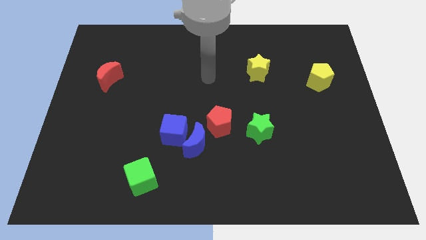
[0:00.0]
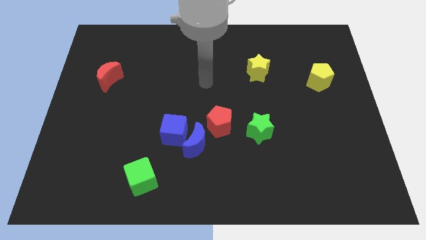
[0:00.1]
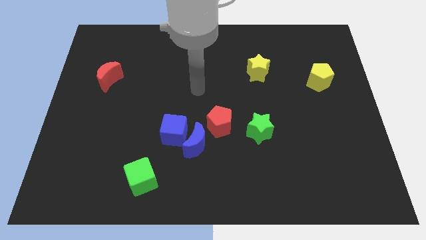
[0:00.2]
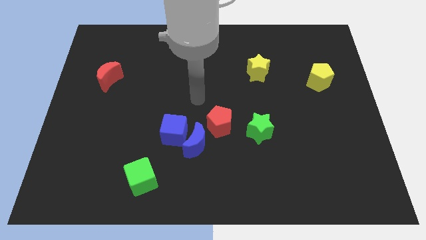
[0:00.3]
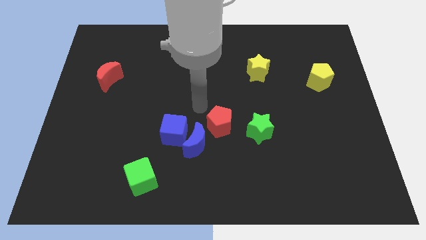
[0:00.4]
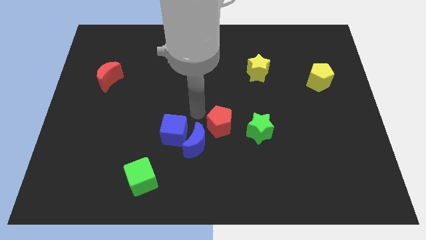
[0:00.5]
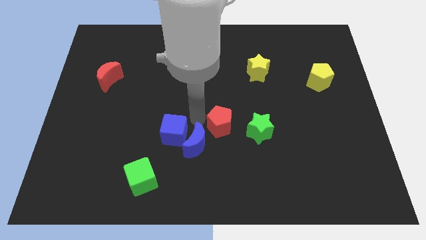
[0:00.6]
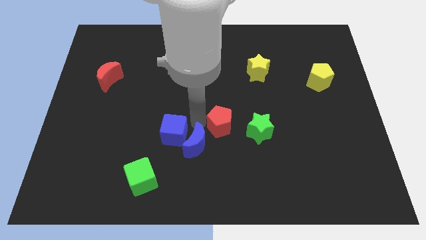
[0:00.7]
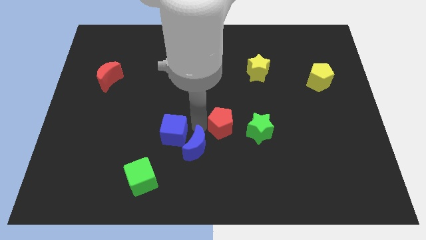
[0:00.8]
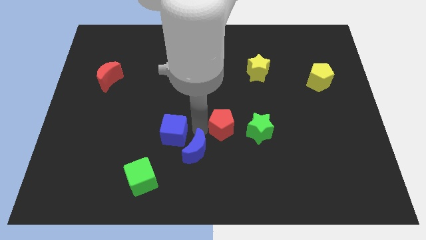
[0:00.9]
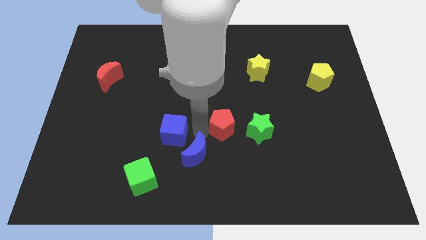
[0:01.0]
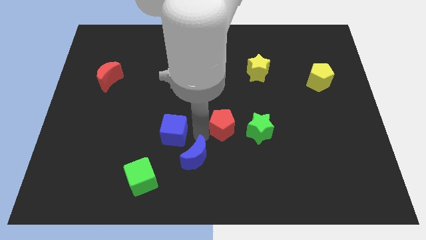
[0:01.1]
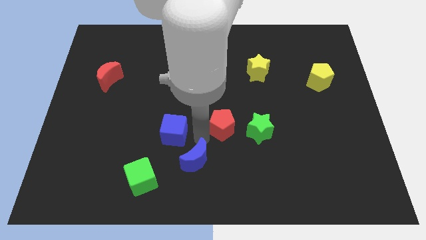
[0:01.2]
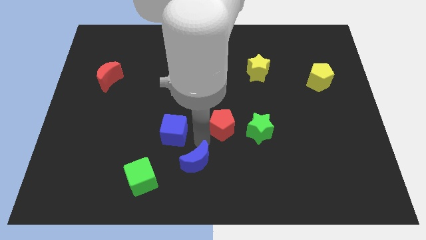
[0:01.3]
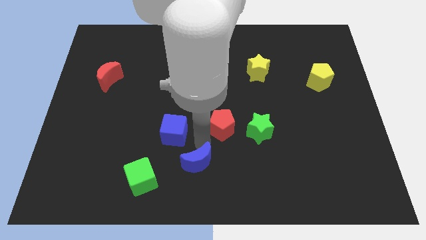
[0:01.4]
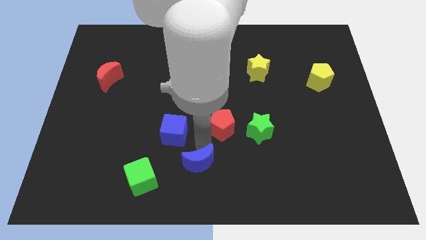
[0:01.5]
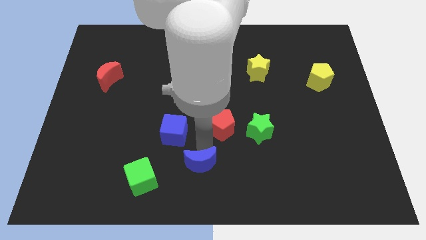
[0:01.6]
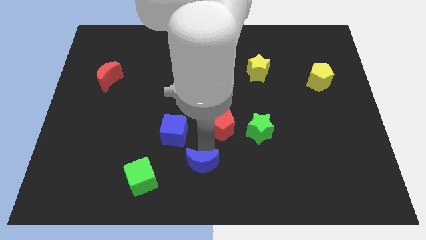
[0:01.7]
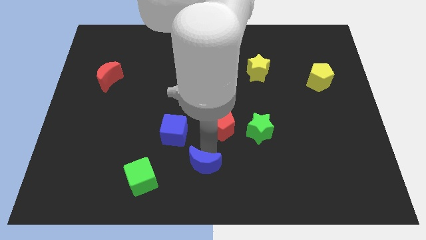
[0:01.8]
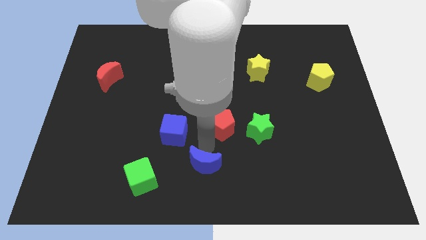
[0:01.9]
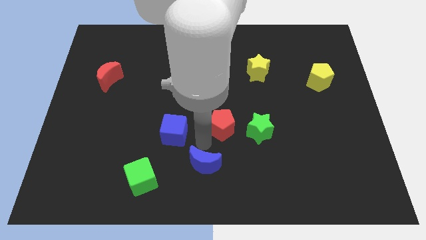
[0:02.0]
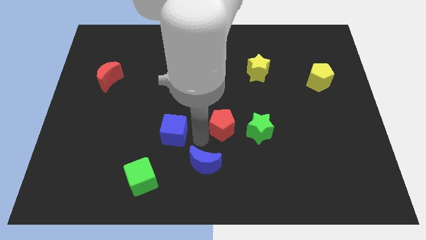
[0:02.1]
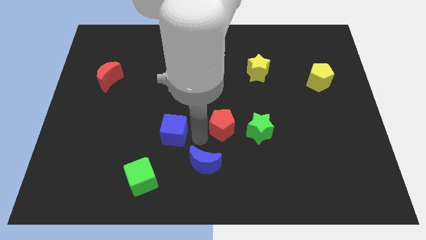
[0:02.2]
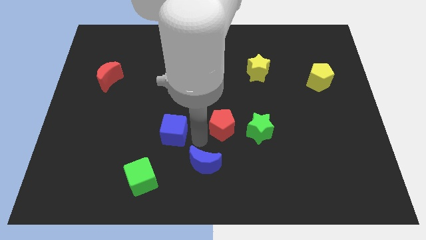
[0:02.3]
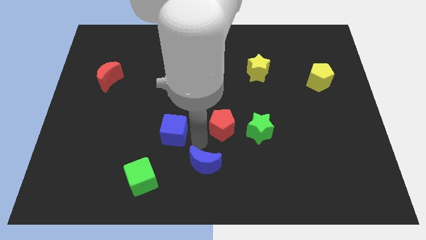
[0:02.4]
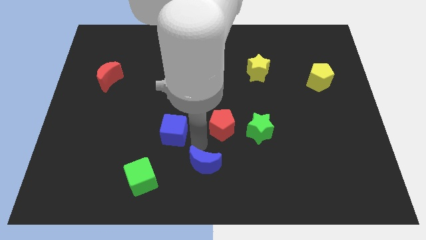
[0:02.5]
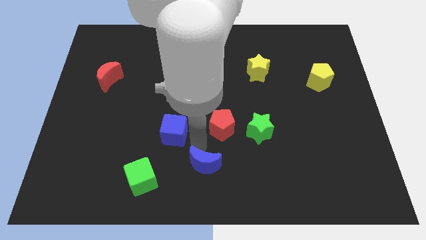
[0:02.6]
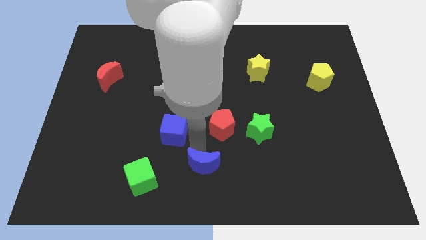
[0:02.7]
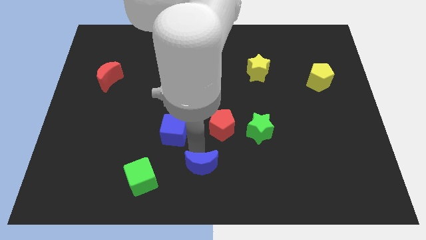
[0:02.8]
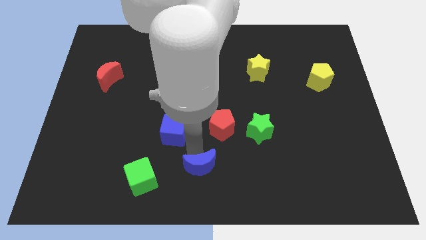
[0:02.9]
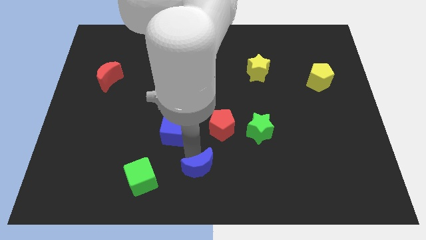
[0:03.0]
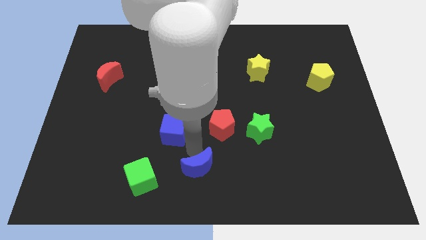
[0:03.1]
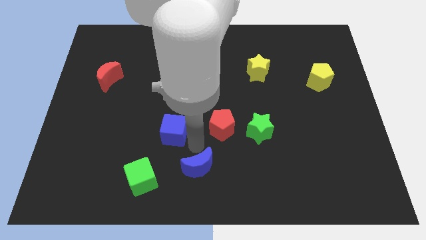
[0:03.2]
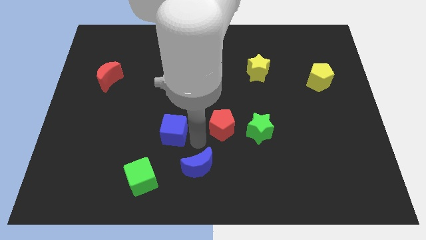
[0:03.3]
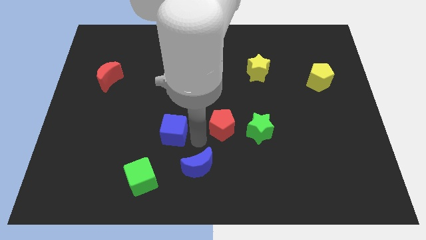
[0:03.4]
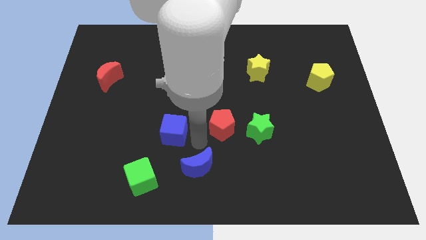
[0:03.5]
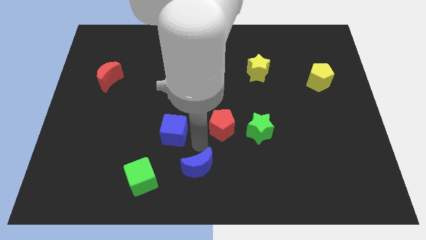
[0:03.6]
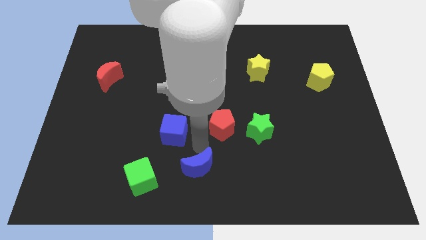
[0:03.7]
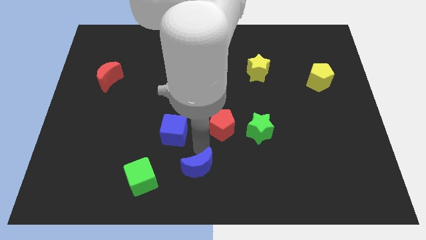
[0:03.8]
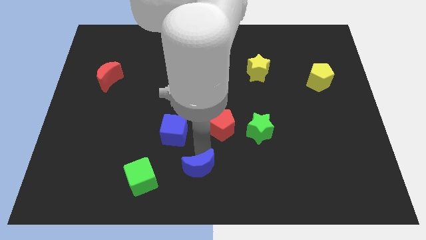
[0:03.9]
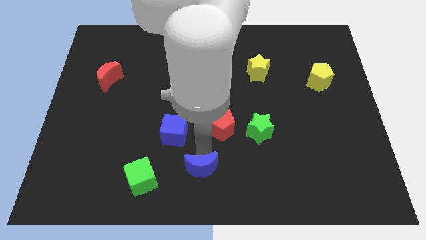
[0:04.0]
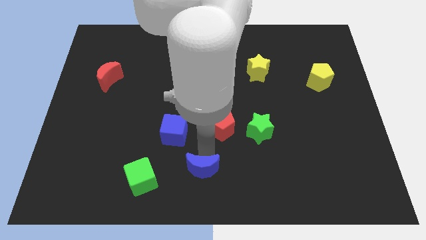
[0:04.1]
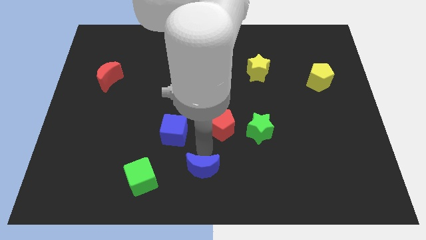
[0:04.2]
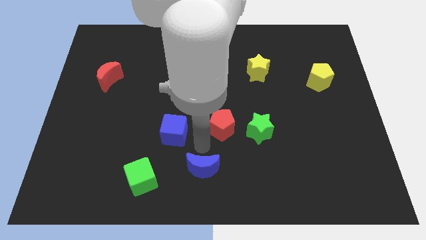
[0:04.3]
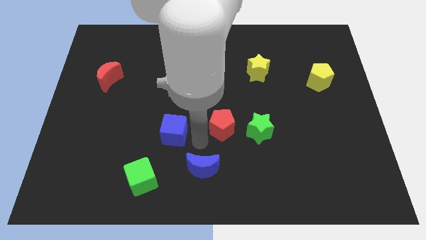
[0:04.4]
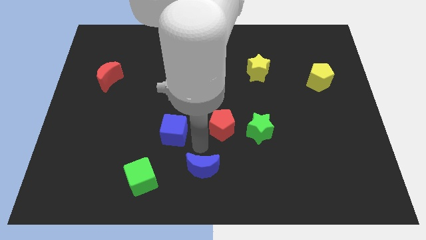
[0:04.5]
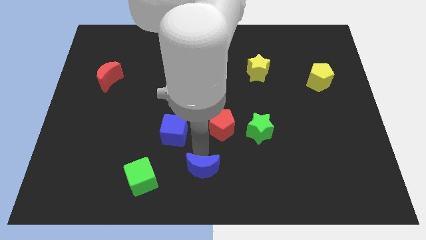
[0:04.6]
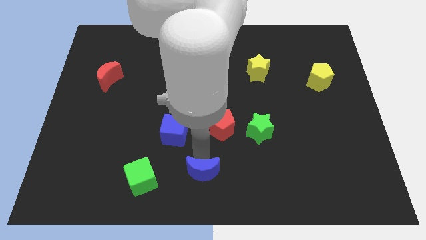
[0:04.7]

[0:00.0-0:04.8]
pull the blue moon apart from the blue cube and red pentagon

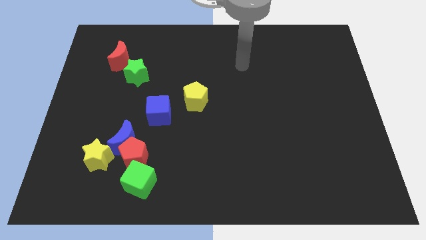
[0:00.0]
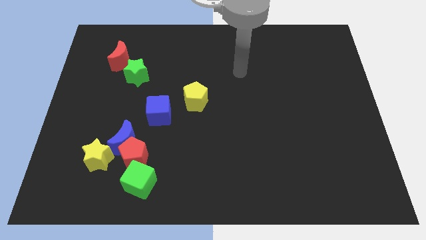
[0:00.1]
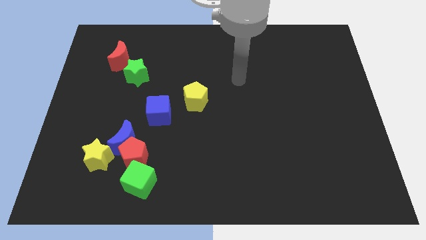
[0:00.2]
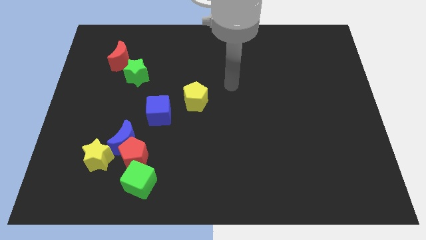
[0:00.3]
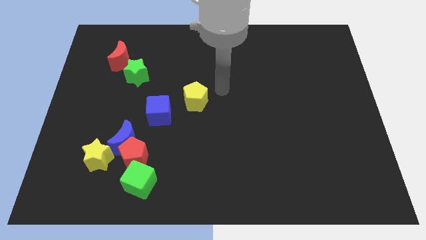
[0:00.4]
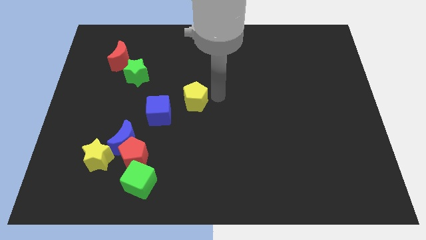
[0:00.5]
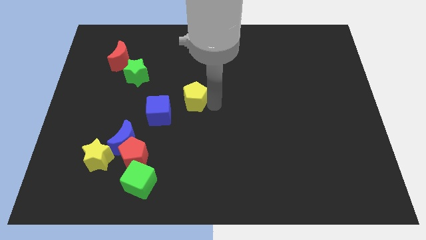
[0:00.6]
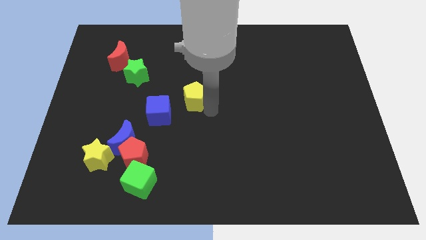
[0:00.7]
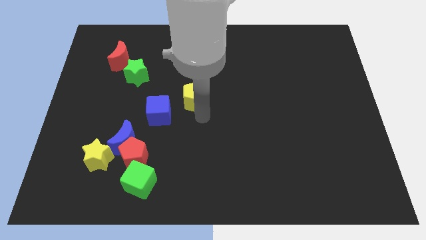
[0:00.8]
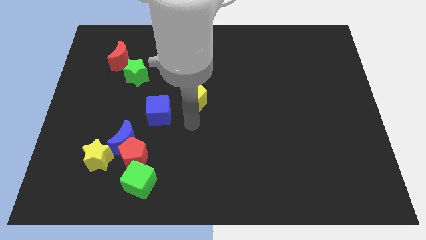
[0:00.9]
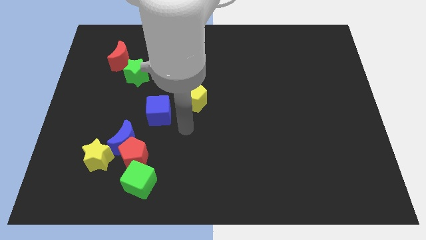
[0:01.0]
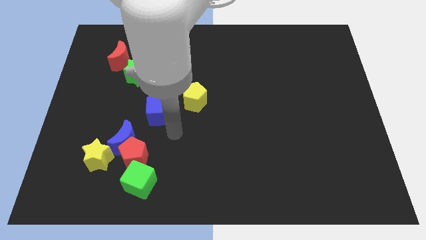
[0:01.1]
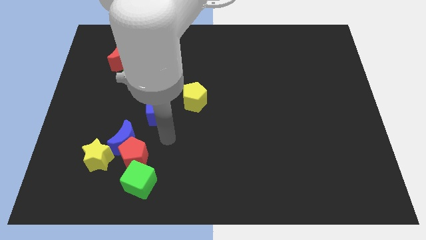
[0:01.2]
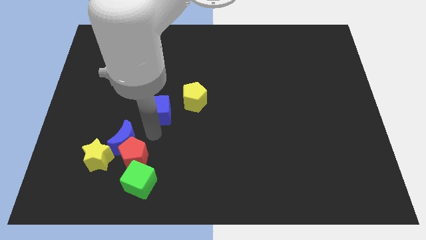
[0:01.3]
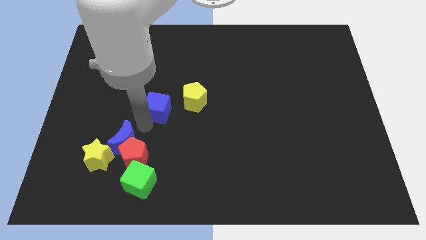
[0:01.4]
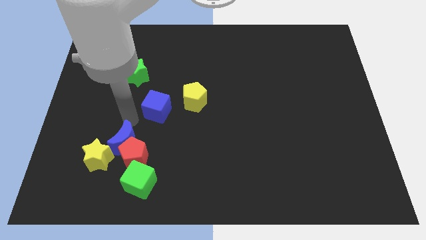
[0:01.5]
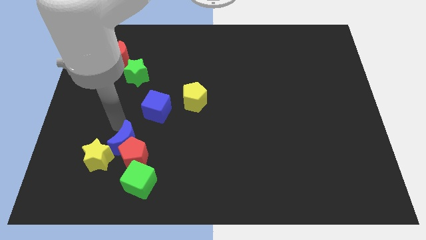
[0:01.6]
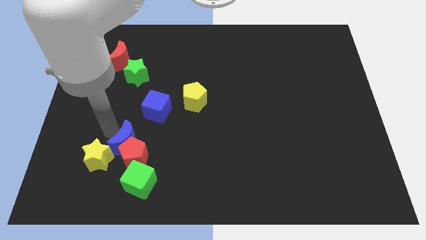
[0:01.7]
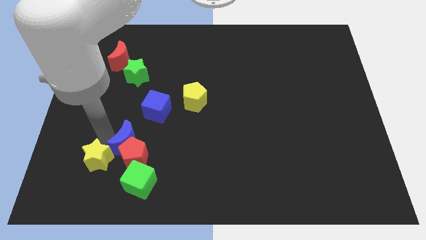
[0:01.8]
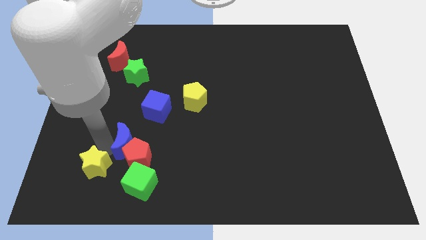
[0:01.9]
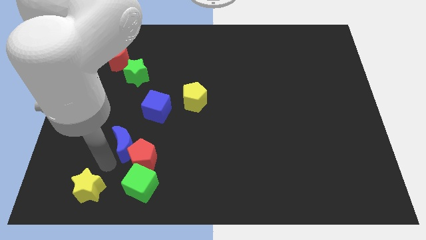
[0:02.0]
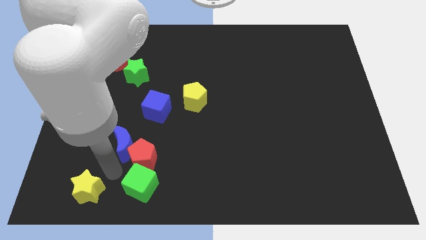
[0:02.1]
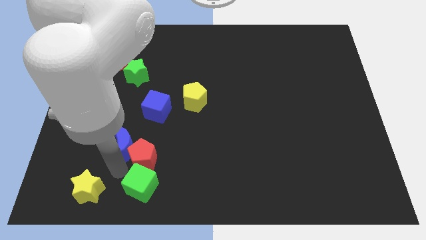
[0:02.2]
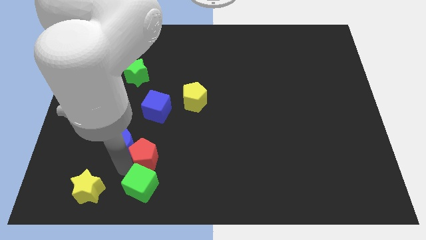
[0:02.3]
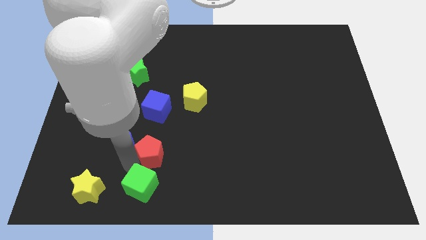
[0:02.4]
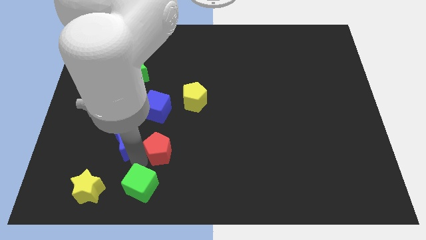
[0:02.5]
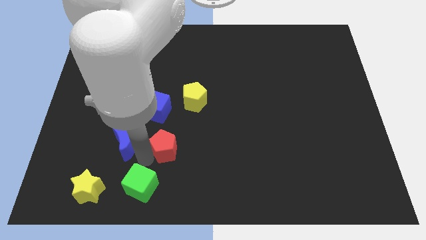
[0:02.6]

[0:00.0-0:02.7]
pull the red pentagon apart from the clump

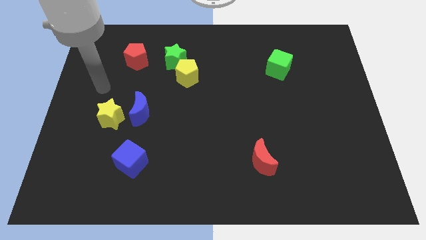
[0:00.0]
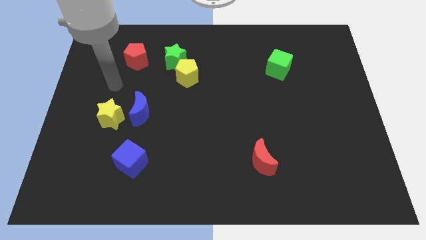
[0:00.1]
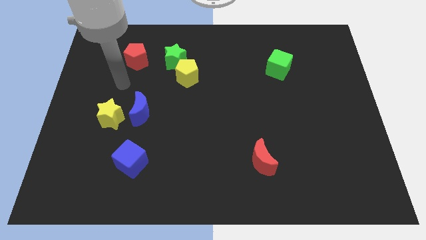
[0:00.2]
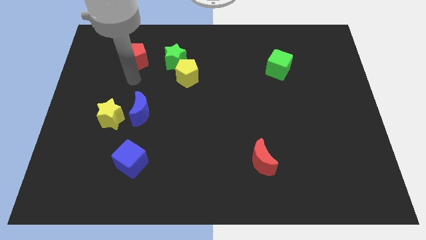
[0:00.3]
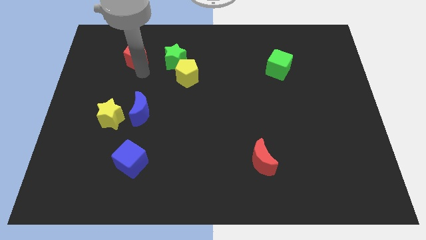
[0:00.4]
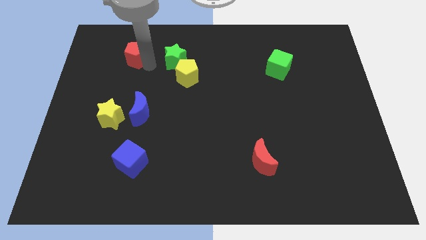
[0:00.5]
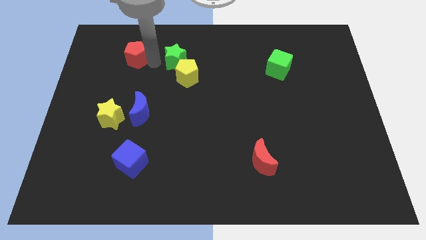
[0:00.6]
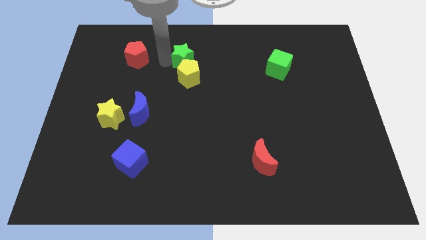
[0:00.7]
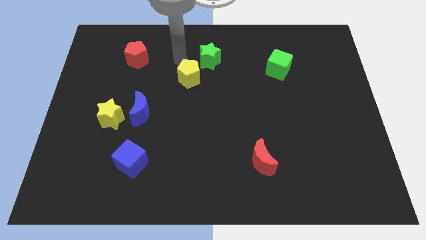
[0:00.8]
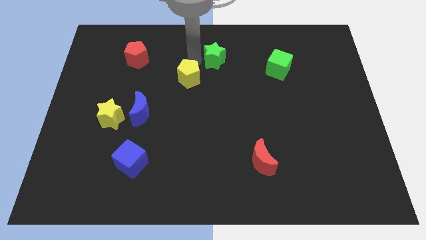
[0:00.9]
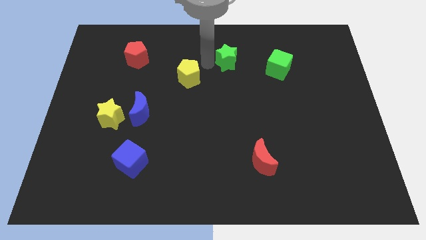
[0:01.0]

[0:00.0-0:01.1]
separate the yellow pentagon from the green star

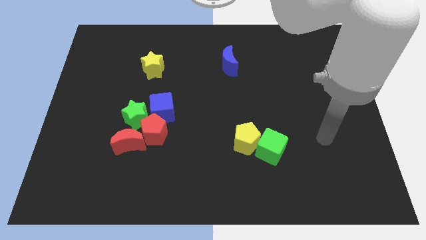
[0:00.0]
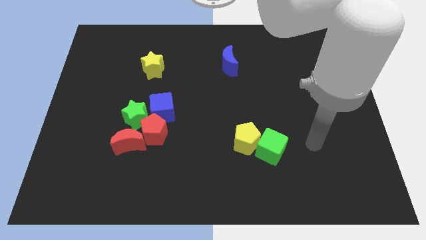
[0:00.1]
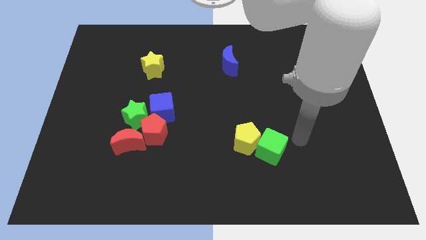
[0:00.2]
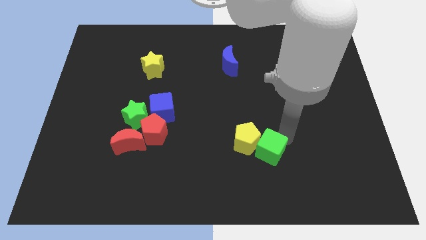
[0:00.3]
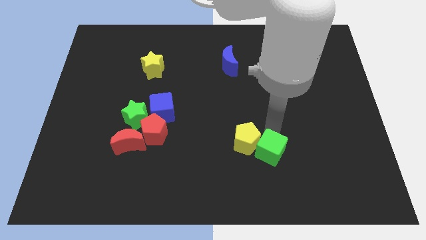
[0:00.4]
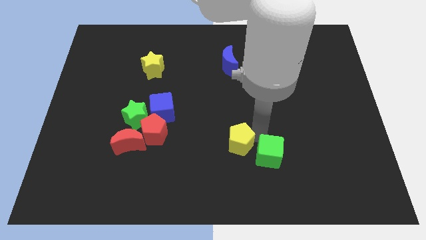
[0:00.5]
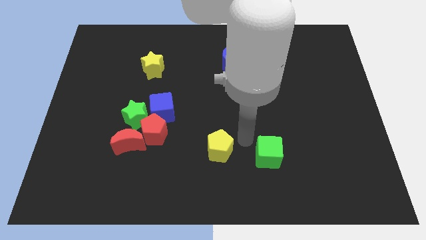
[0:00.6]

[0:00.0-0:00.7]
pull the green cube apart from the yellow pentagon
